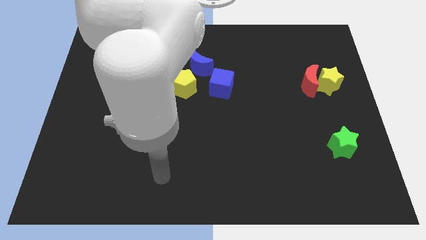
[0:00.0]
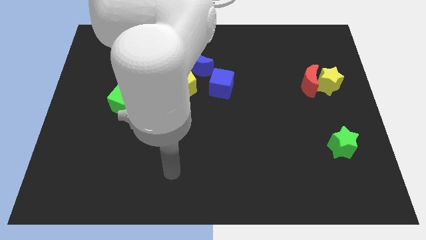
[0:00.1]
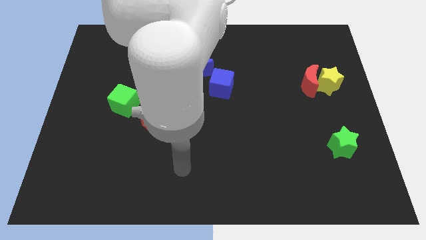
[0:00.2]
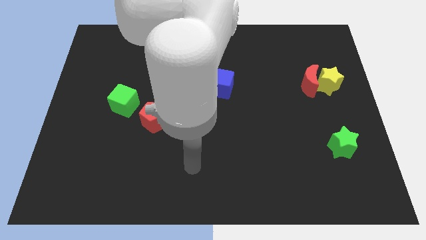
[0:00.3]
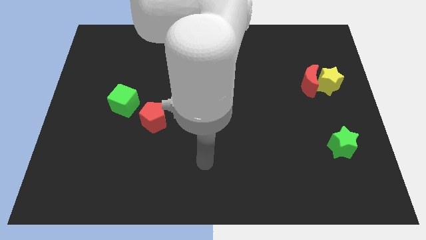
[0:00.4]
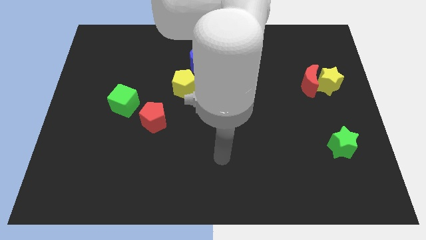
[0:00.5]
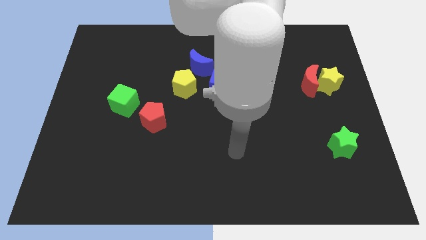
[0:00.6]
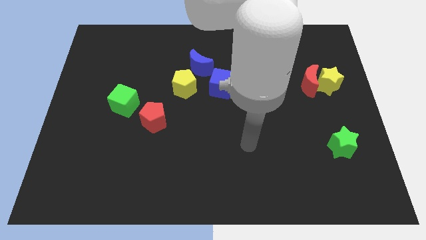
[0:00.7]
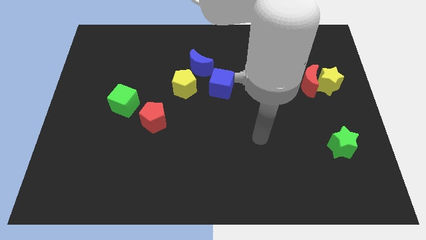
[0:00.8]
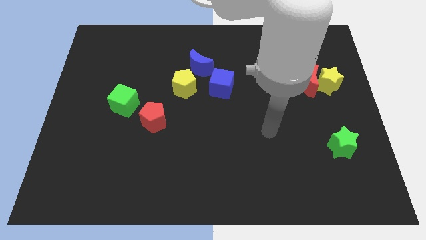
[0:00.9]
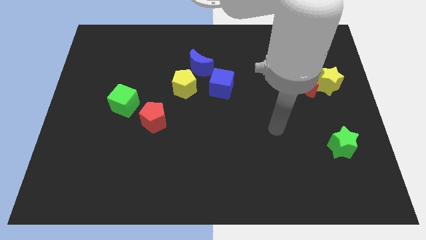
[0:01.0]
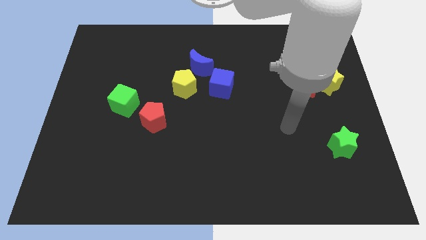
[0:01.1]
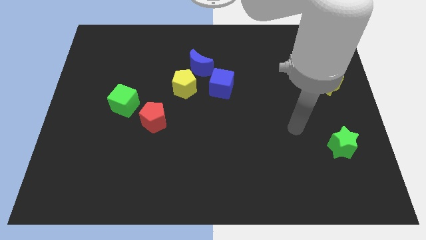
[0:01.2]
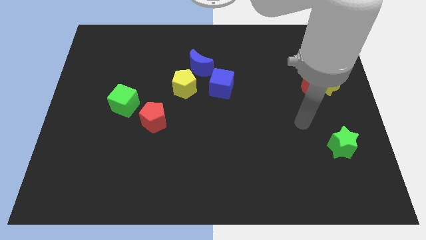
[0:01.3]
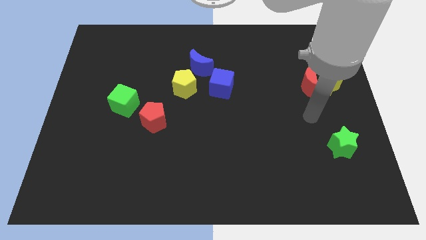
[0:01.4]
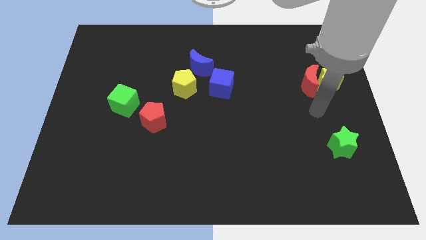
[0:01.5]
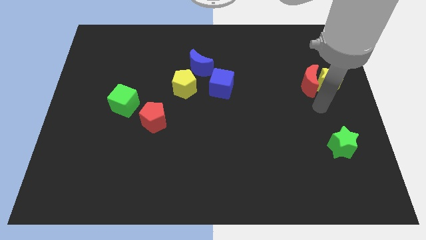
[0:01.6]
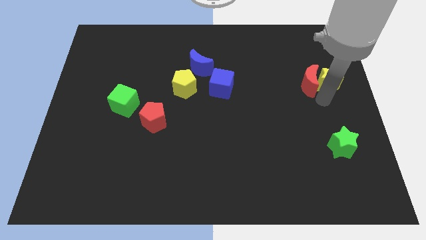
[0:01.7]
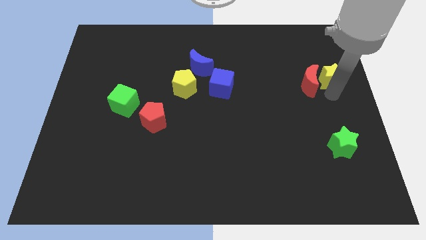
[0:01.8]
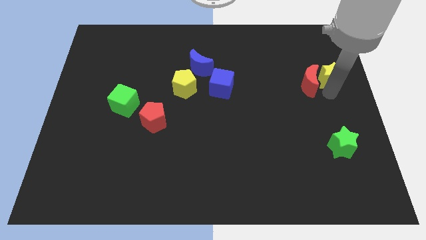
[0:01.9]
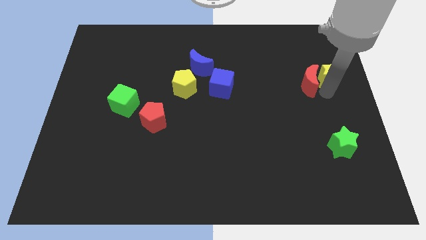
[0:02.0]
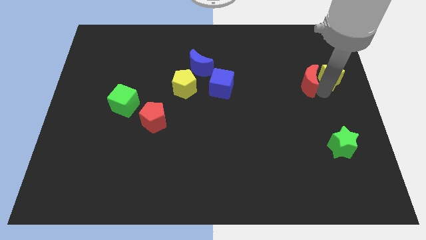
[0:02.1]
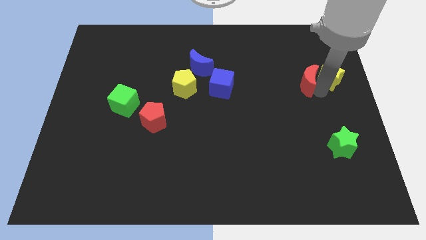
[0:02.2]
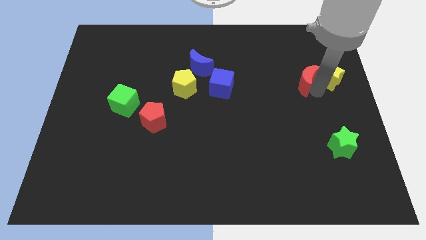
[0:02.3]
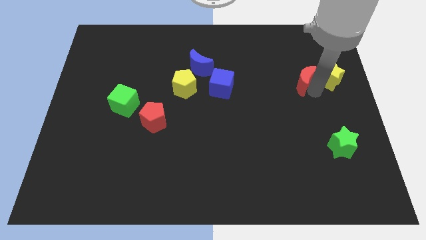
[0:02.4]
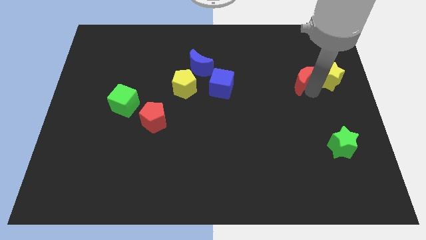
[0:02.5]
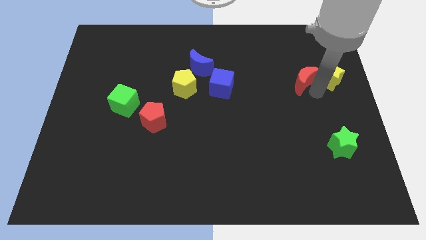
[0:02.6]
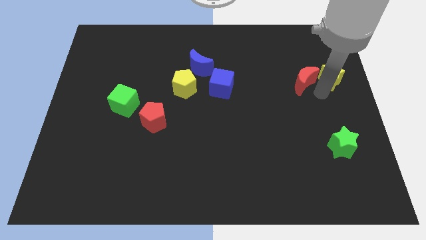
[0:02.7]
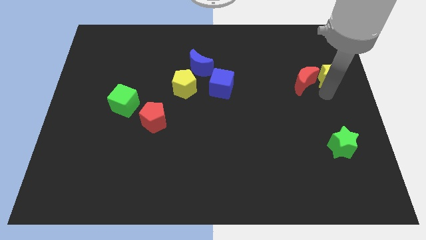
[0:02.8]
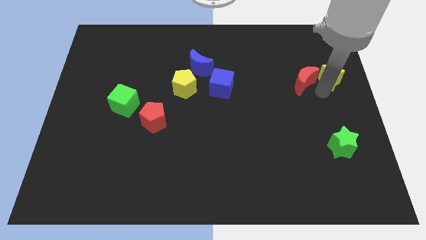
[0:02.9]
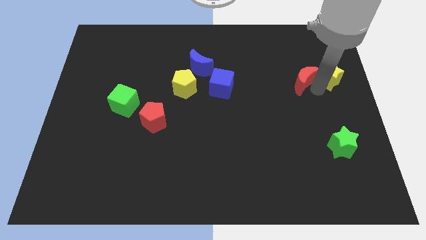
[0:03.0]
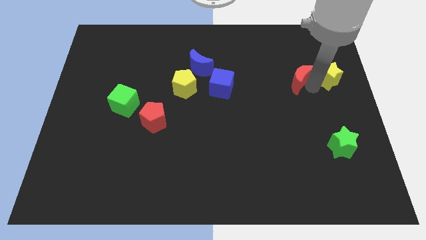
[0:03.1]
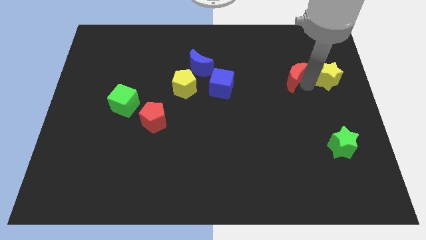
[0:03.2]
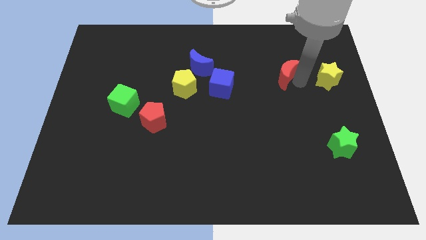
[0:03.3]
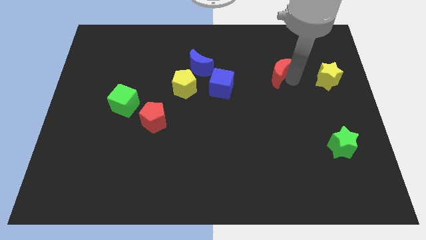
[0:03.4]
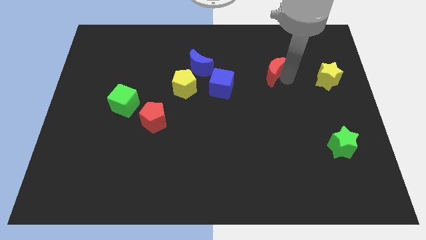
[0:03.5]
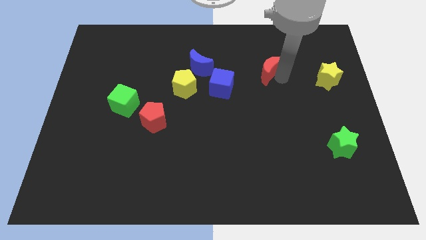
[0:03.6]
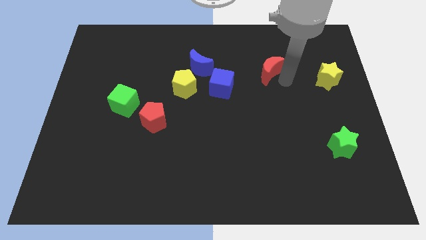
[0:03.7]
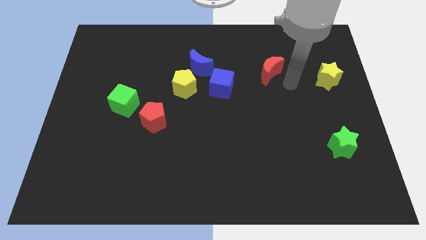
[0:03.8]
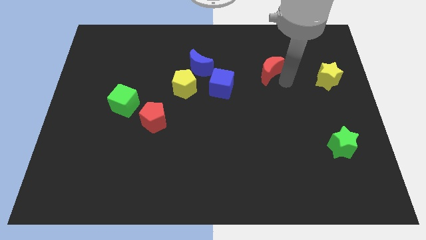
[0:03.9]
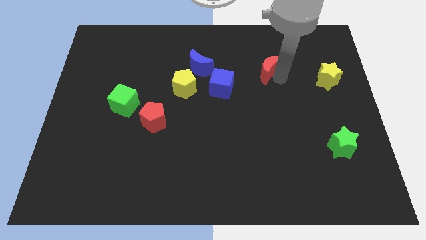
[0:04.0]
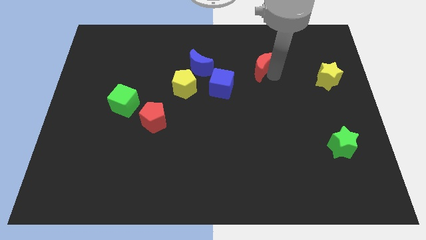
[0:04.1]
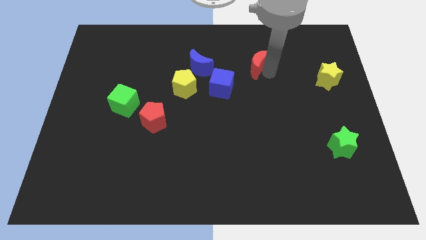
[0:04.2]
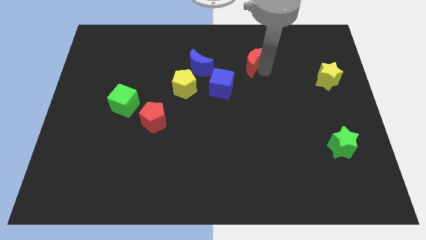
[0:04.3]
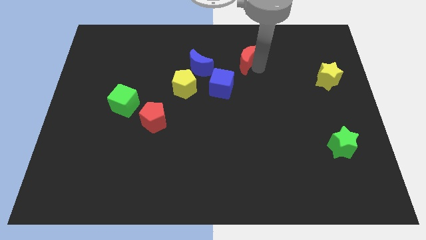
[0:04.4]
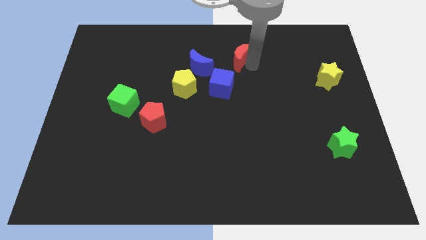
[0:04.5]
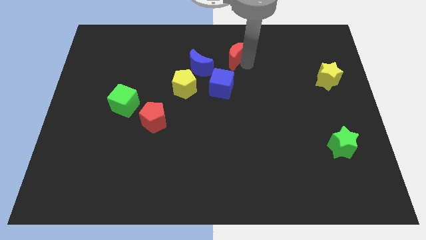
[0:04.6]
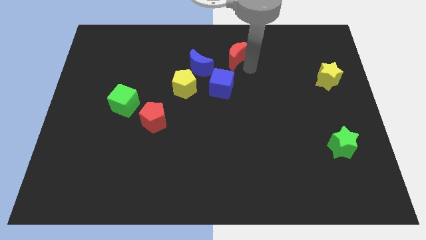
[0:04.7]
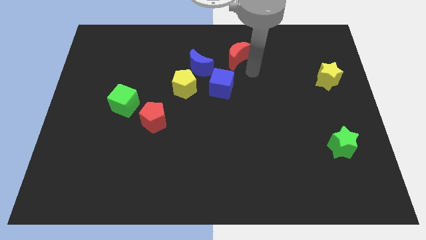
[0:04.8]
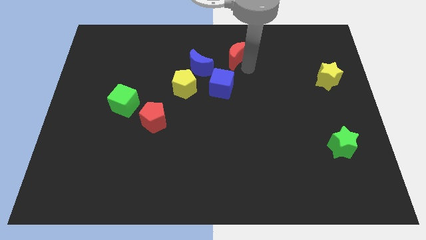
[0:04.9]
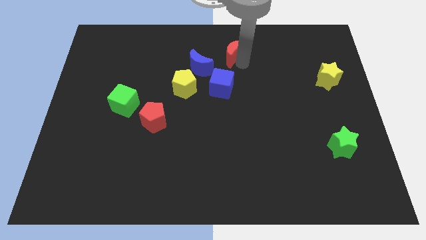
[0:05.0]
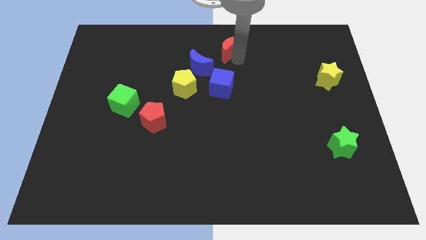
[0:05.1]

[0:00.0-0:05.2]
slide the red moon to the top

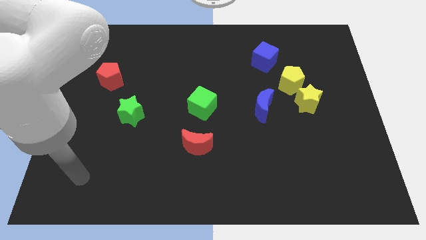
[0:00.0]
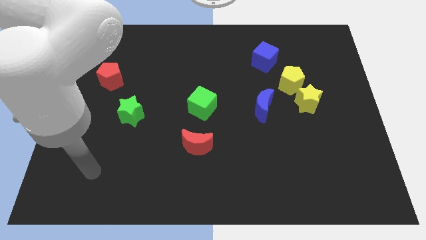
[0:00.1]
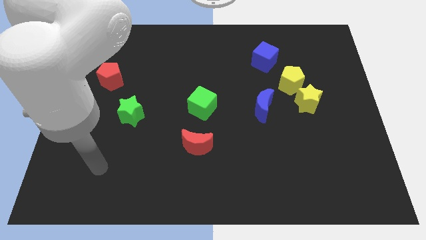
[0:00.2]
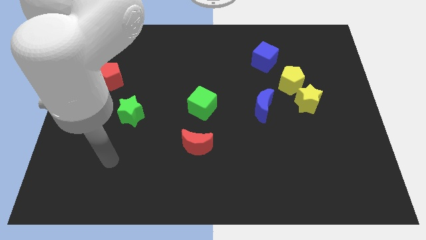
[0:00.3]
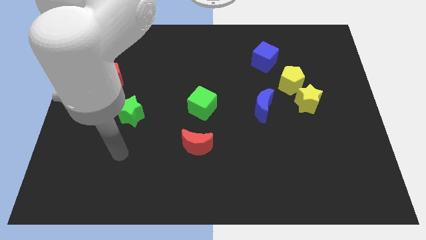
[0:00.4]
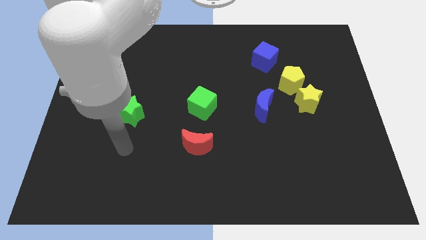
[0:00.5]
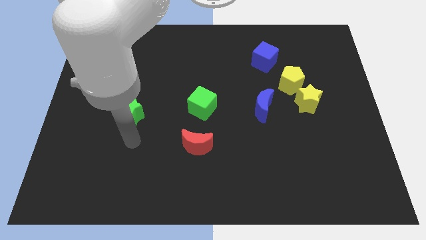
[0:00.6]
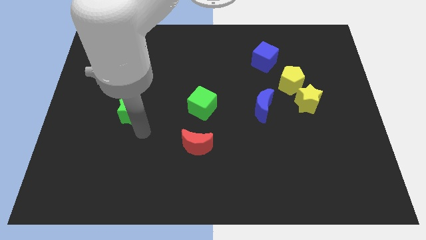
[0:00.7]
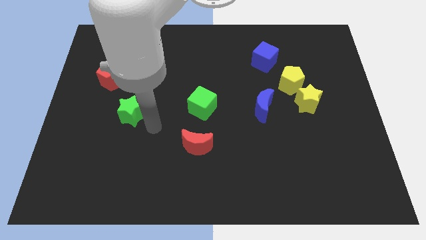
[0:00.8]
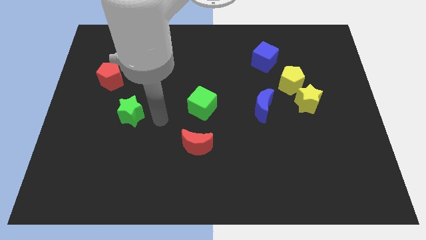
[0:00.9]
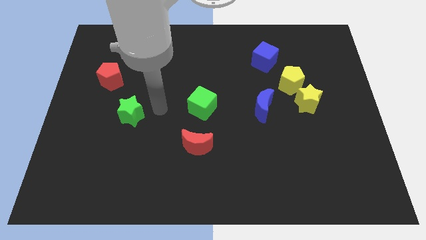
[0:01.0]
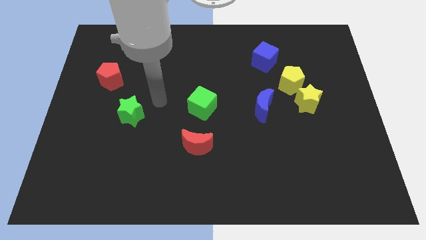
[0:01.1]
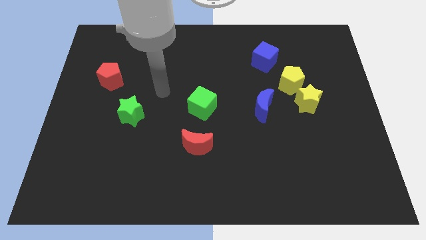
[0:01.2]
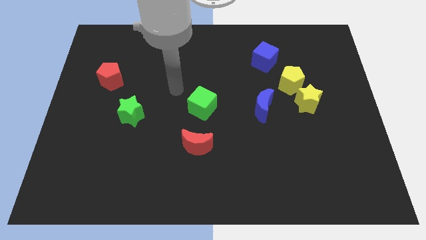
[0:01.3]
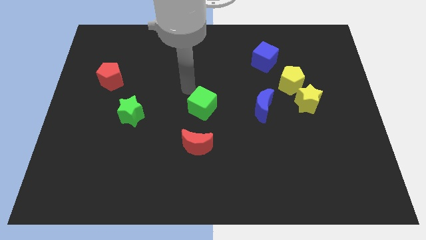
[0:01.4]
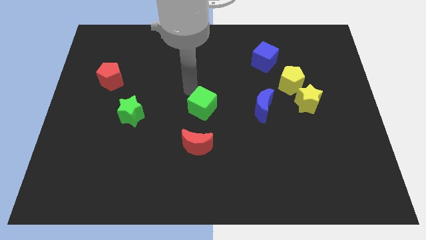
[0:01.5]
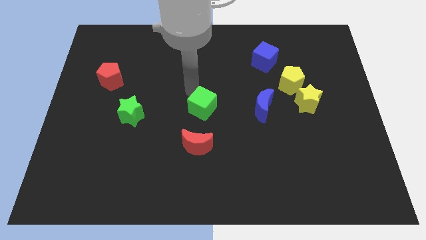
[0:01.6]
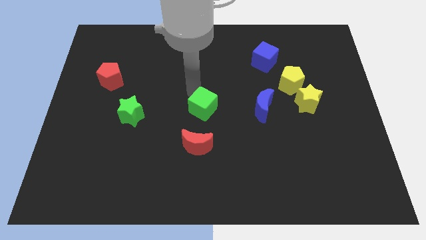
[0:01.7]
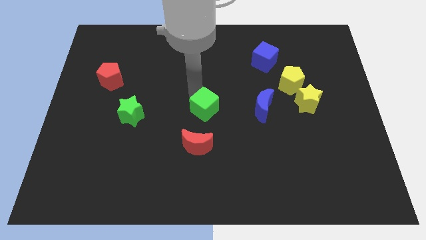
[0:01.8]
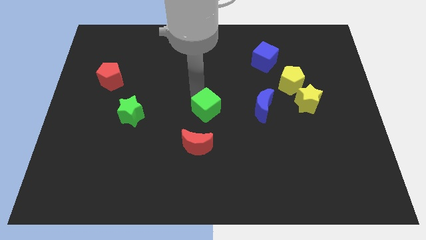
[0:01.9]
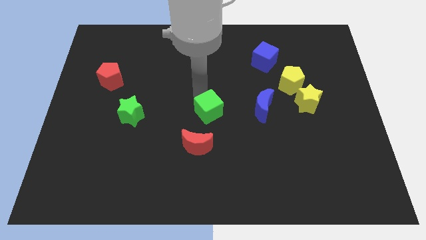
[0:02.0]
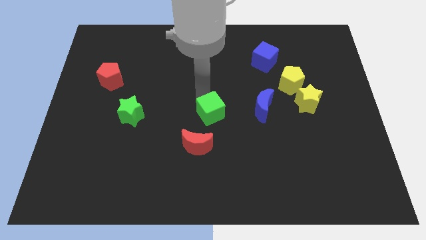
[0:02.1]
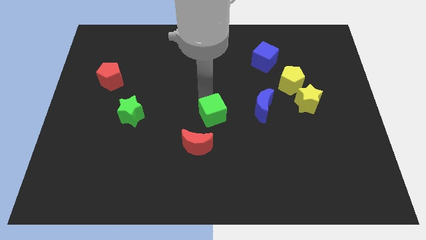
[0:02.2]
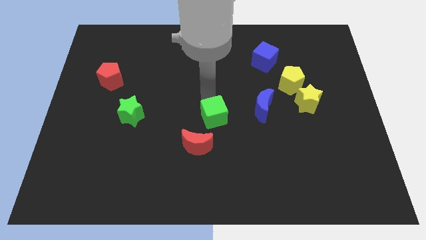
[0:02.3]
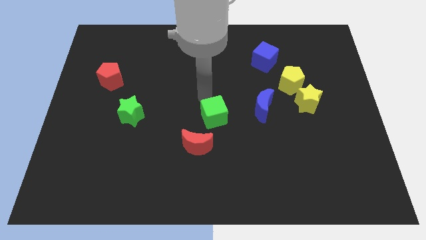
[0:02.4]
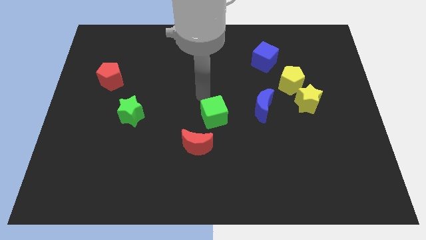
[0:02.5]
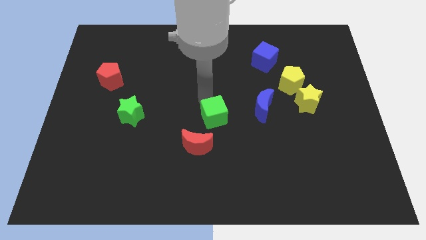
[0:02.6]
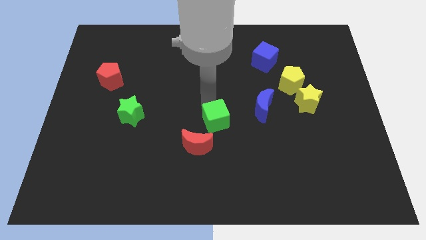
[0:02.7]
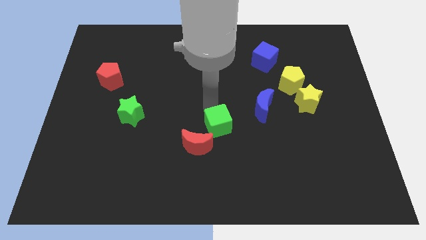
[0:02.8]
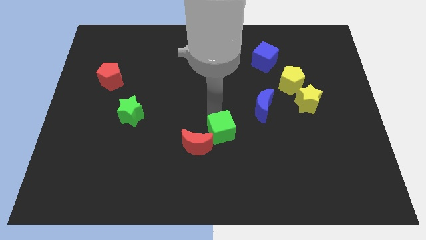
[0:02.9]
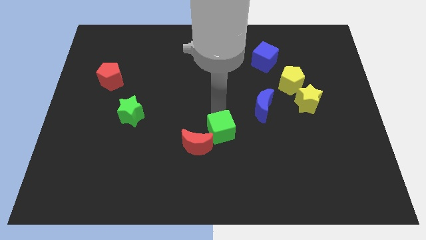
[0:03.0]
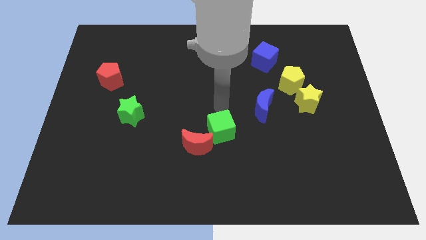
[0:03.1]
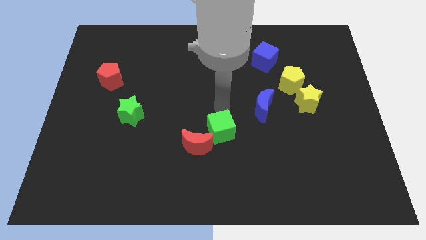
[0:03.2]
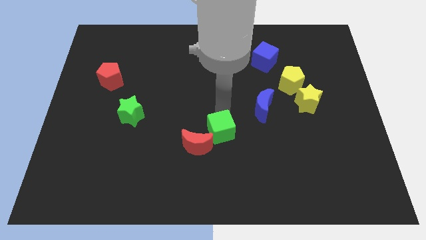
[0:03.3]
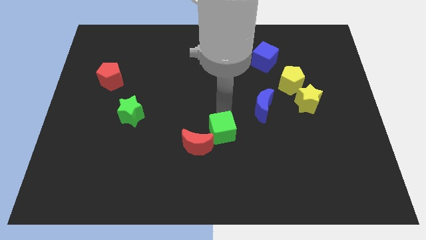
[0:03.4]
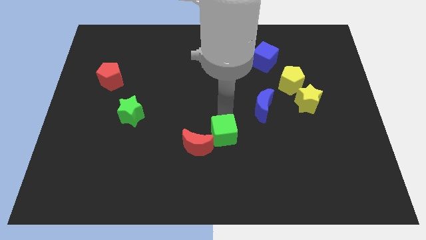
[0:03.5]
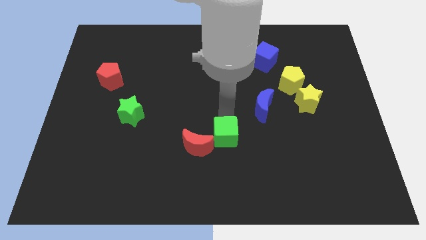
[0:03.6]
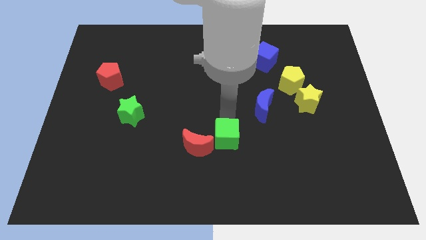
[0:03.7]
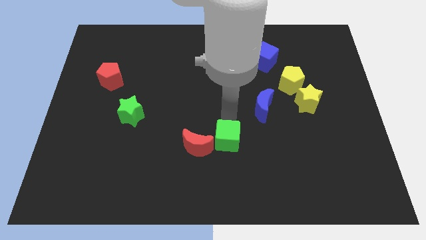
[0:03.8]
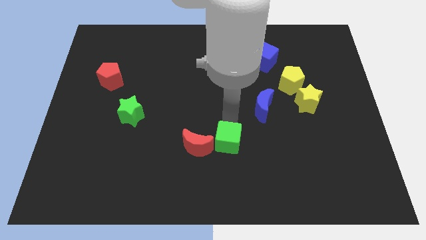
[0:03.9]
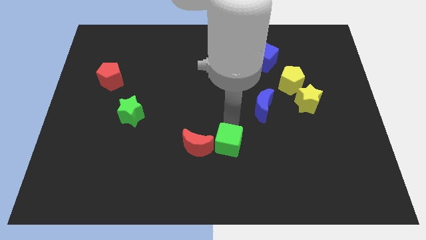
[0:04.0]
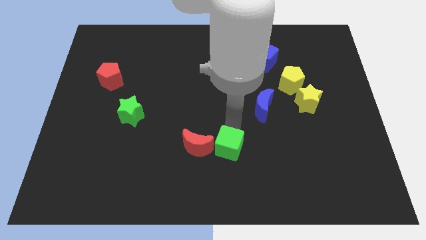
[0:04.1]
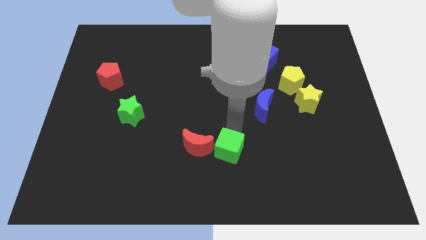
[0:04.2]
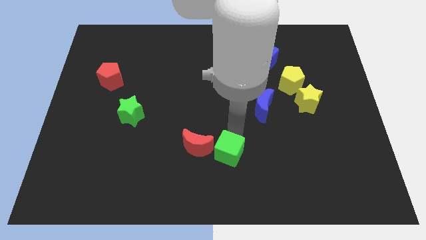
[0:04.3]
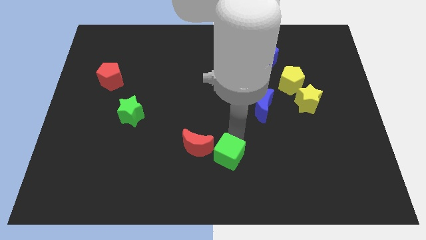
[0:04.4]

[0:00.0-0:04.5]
move the green cube to the bottom side
